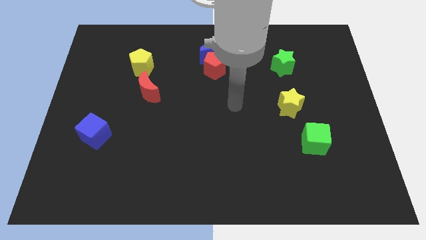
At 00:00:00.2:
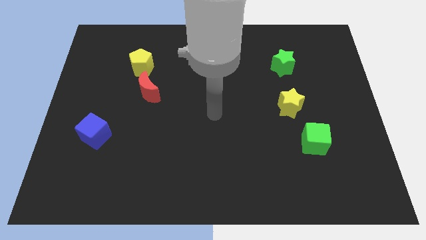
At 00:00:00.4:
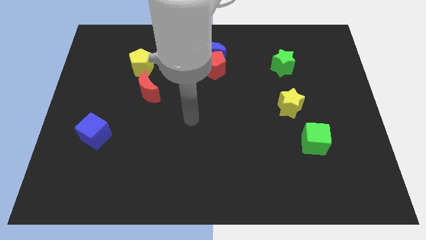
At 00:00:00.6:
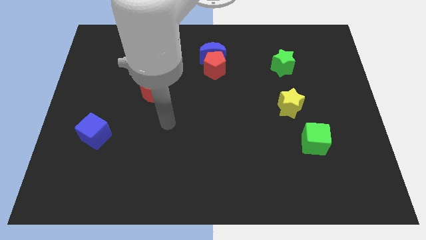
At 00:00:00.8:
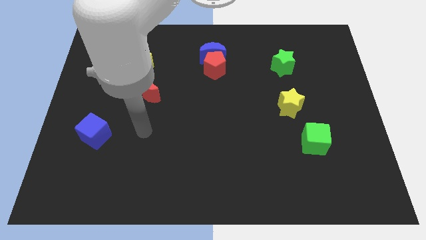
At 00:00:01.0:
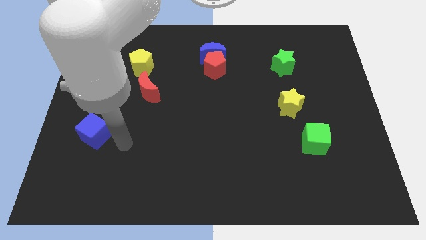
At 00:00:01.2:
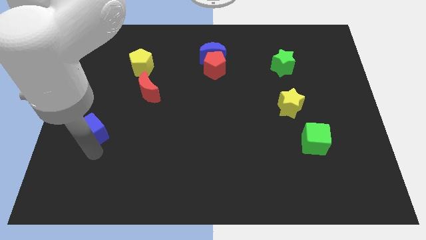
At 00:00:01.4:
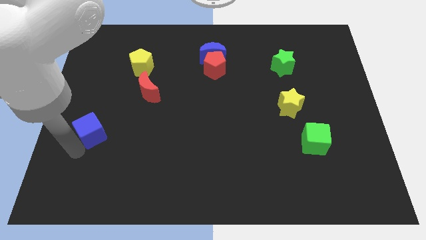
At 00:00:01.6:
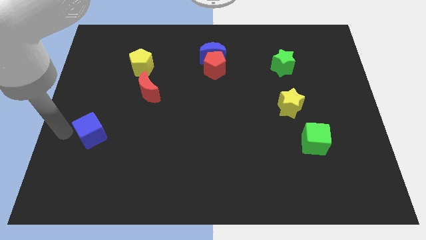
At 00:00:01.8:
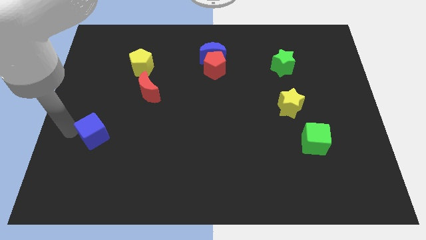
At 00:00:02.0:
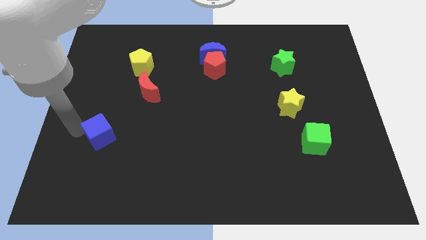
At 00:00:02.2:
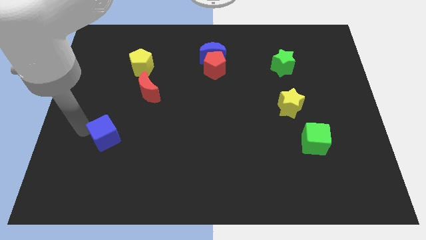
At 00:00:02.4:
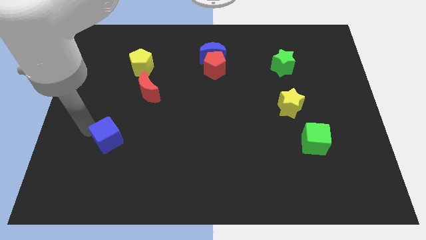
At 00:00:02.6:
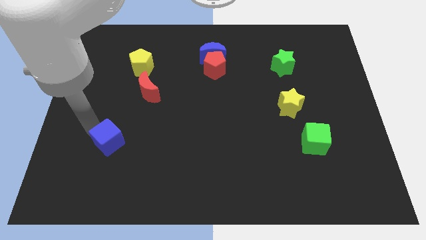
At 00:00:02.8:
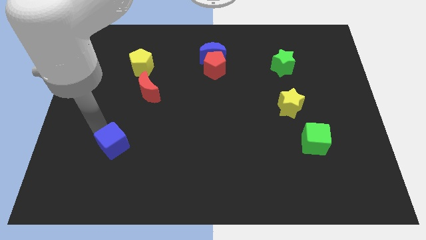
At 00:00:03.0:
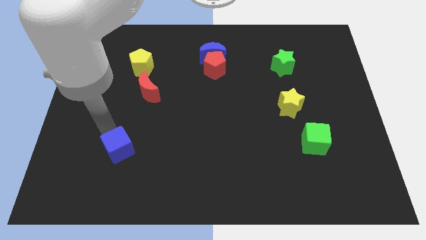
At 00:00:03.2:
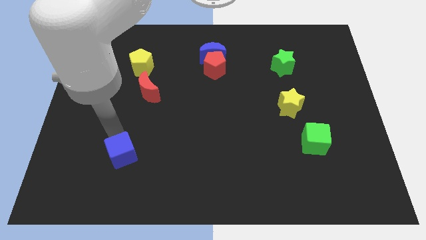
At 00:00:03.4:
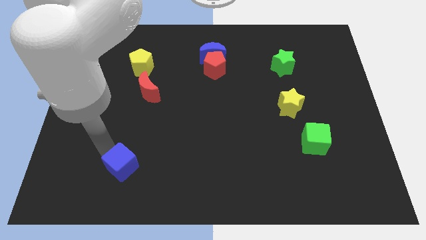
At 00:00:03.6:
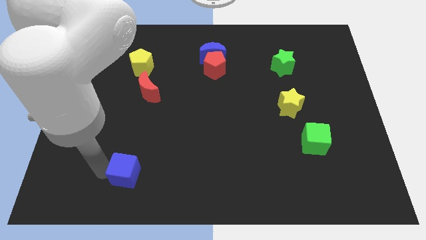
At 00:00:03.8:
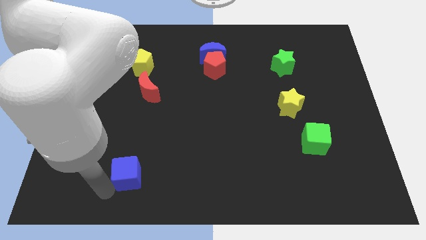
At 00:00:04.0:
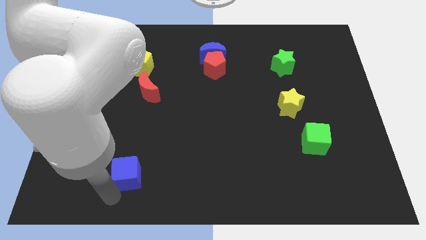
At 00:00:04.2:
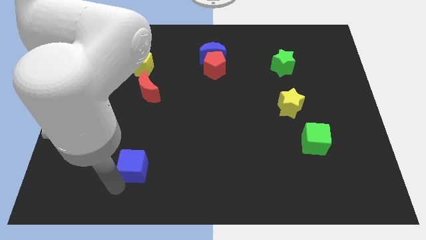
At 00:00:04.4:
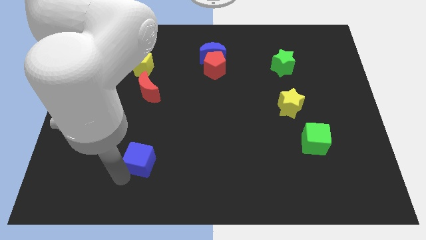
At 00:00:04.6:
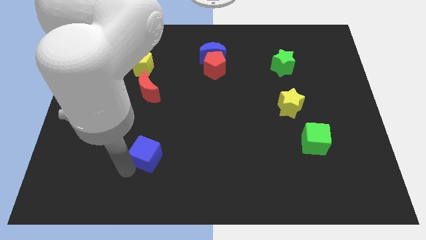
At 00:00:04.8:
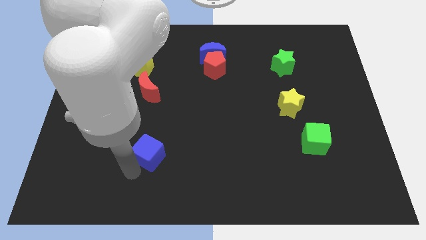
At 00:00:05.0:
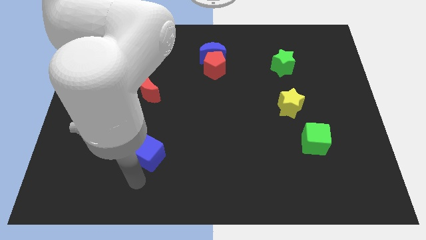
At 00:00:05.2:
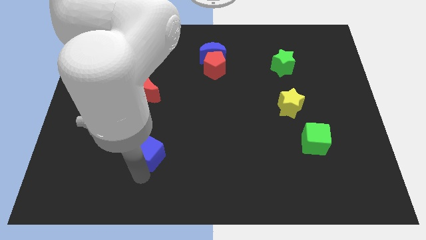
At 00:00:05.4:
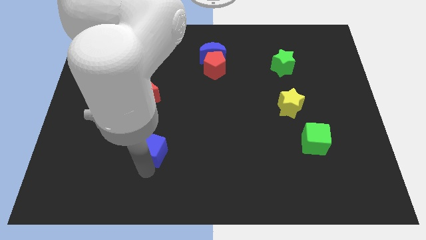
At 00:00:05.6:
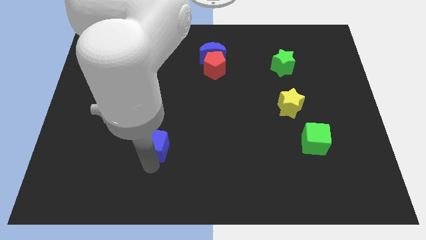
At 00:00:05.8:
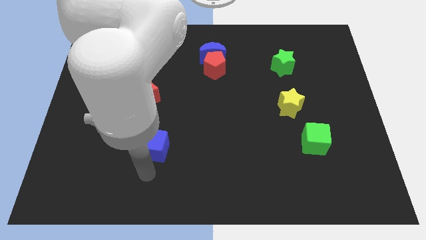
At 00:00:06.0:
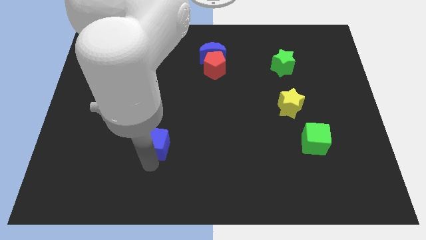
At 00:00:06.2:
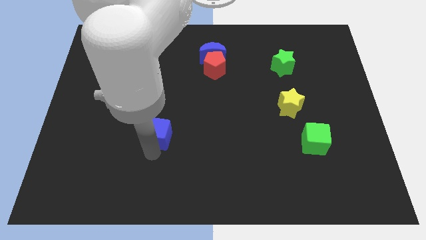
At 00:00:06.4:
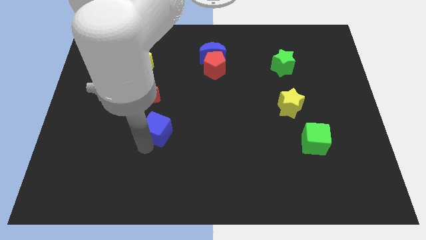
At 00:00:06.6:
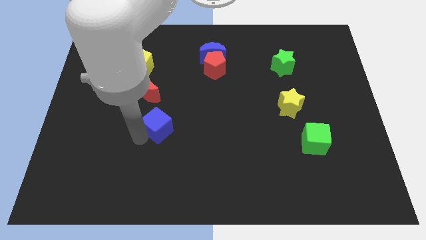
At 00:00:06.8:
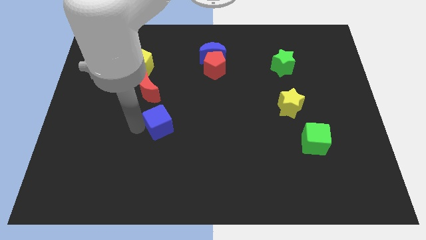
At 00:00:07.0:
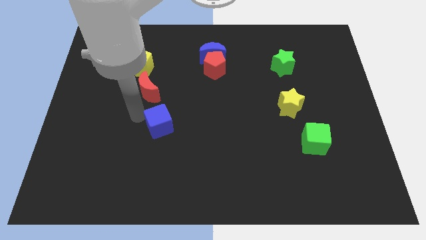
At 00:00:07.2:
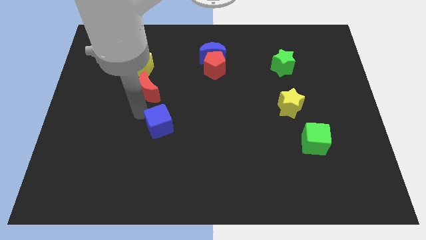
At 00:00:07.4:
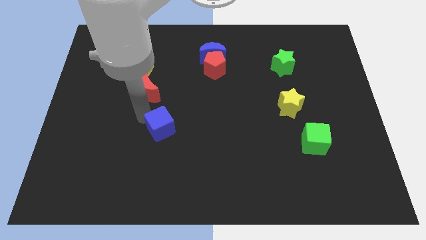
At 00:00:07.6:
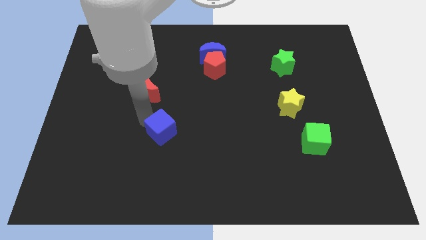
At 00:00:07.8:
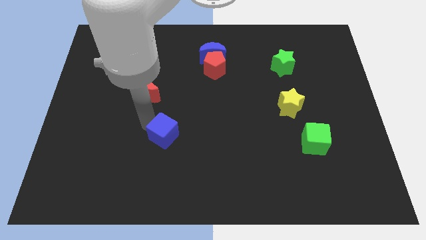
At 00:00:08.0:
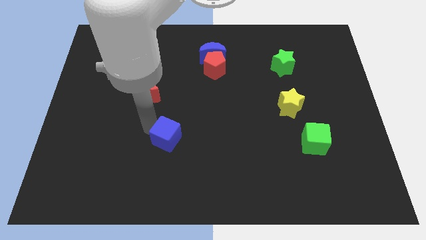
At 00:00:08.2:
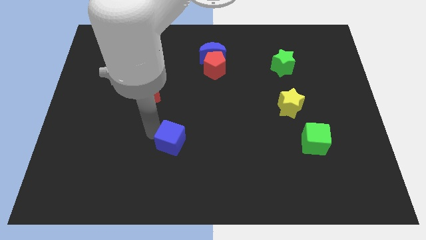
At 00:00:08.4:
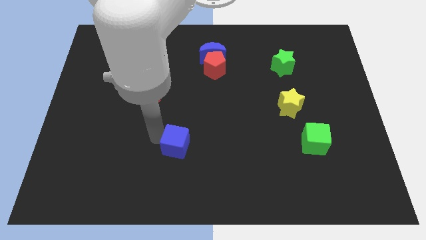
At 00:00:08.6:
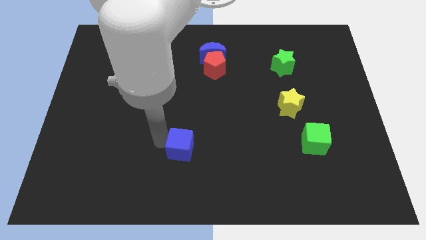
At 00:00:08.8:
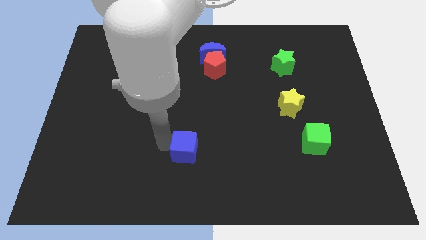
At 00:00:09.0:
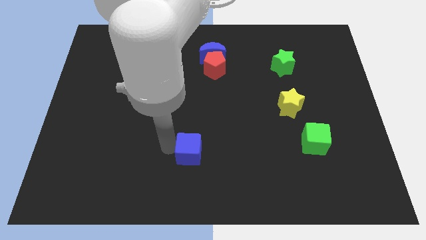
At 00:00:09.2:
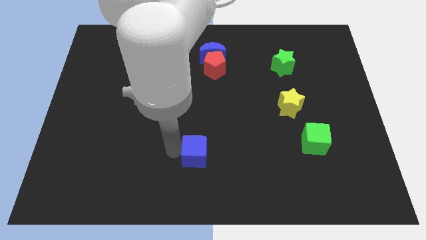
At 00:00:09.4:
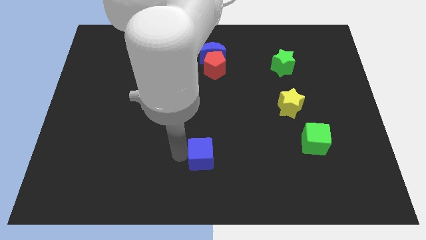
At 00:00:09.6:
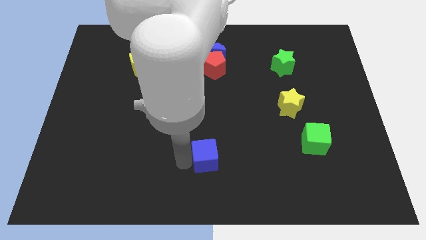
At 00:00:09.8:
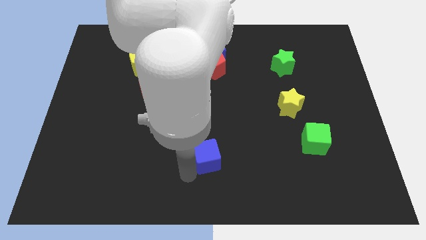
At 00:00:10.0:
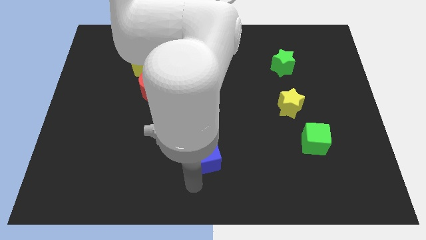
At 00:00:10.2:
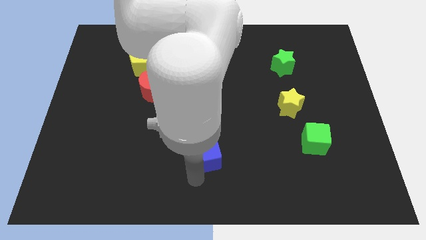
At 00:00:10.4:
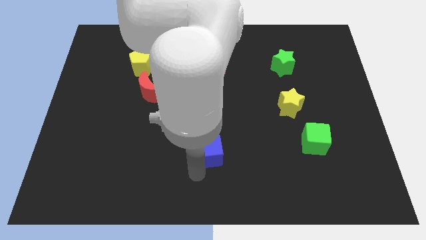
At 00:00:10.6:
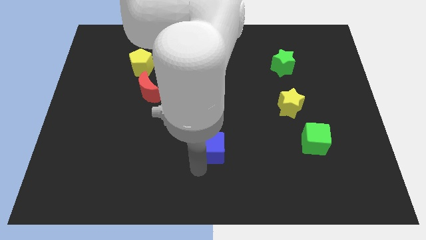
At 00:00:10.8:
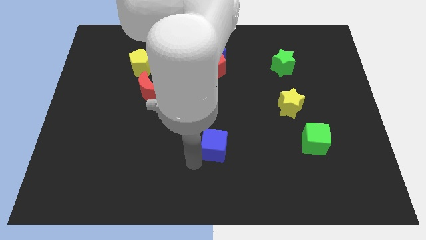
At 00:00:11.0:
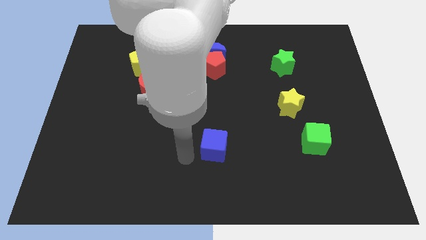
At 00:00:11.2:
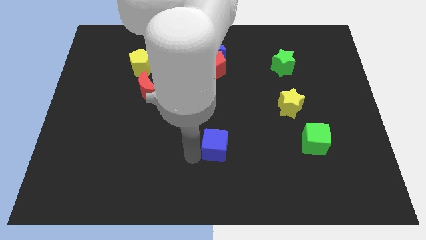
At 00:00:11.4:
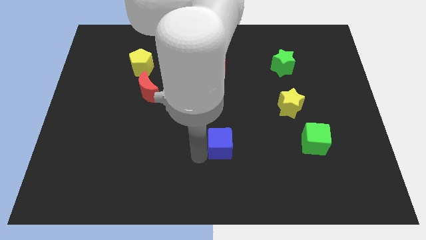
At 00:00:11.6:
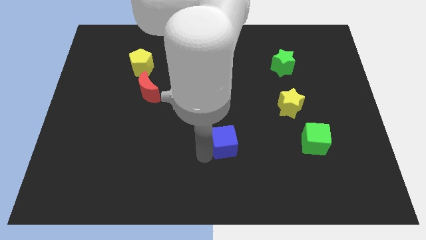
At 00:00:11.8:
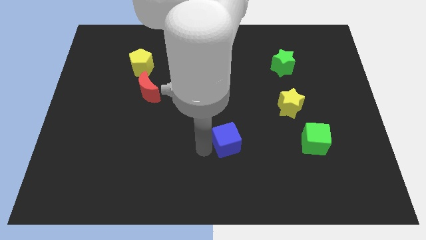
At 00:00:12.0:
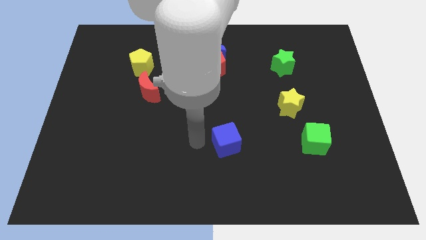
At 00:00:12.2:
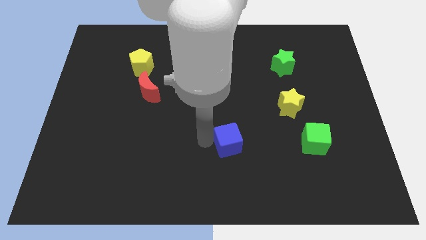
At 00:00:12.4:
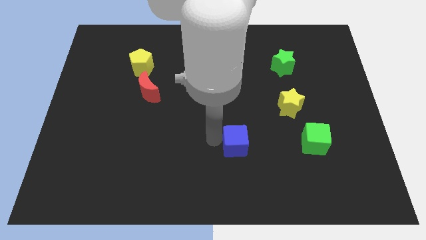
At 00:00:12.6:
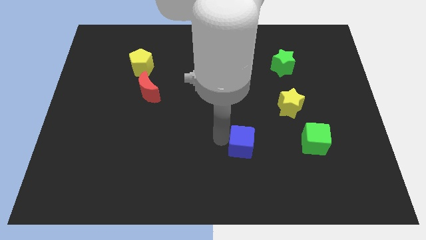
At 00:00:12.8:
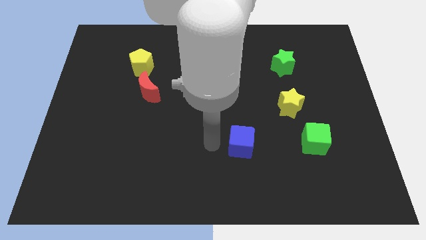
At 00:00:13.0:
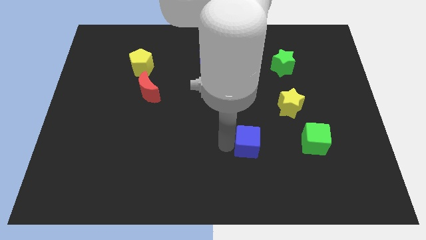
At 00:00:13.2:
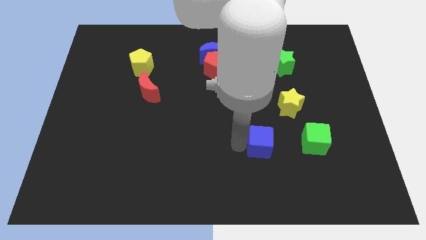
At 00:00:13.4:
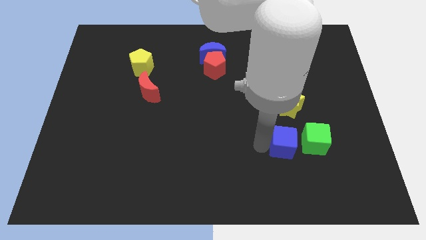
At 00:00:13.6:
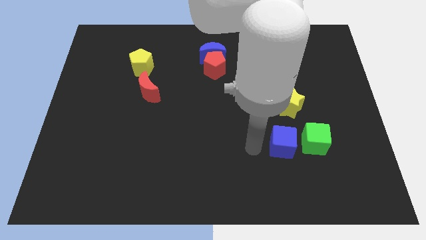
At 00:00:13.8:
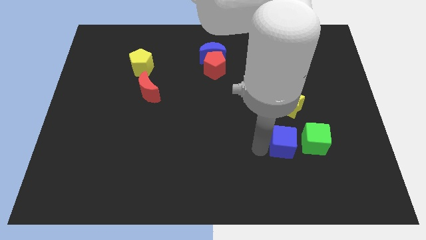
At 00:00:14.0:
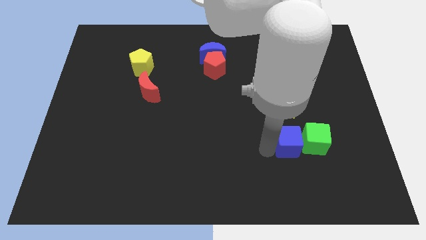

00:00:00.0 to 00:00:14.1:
push the blue cube close to the green cube
